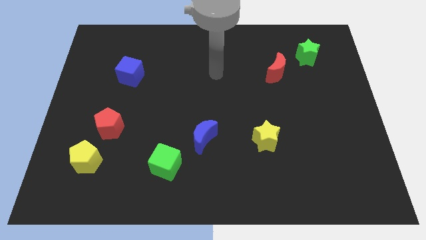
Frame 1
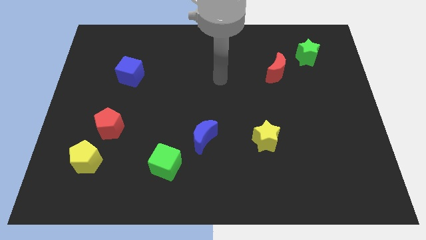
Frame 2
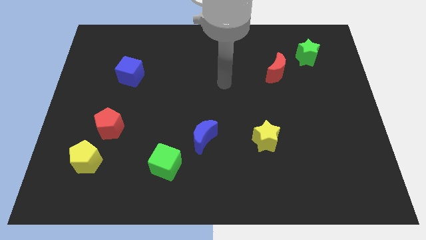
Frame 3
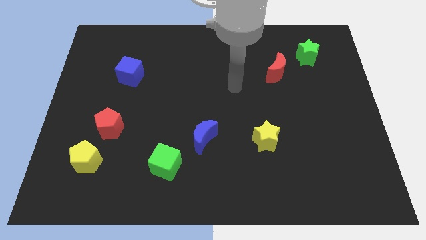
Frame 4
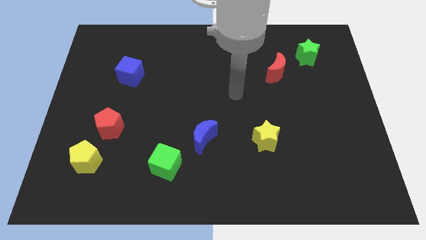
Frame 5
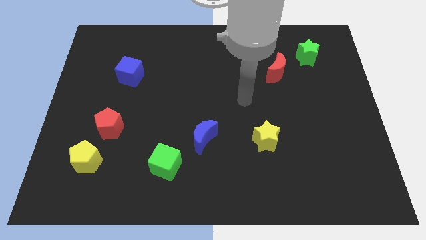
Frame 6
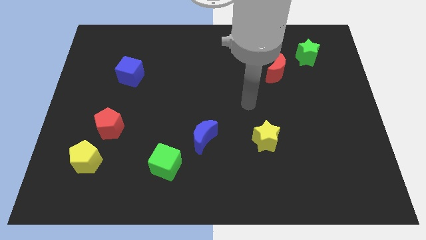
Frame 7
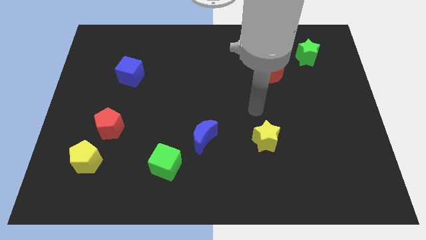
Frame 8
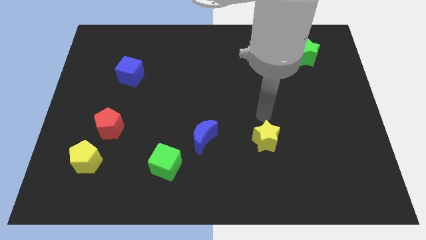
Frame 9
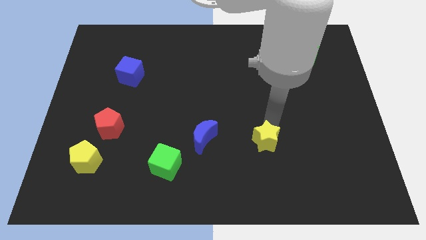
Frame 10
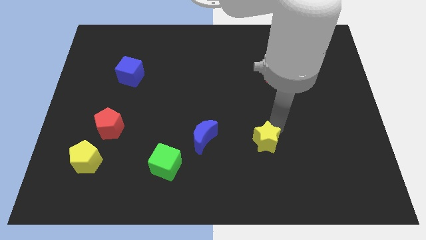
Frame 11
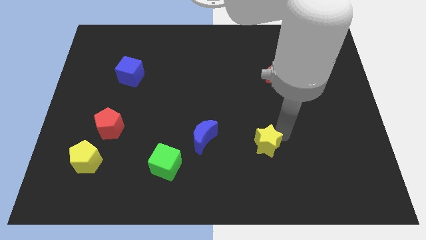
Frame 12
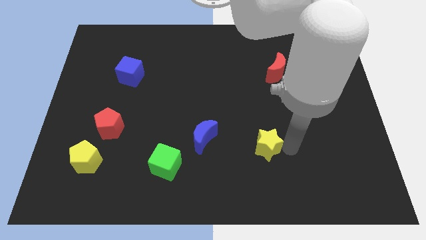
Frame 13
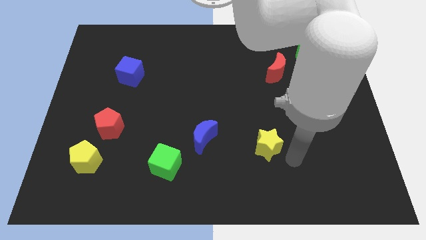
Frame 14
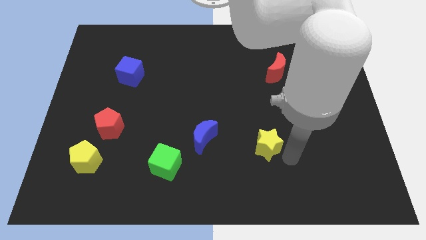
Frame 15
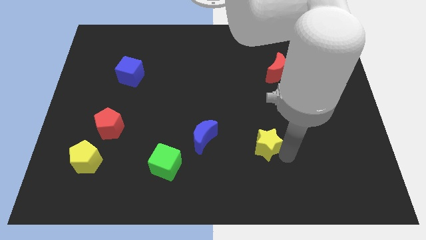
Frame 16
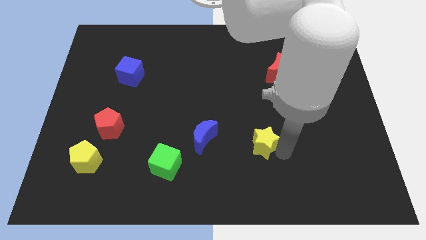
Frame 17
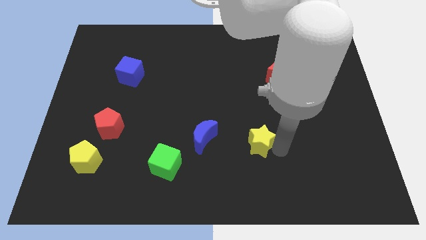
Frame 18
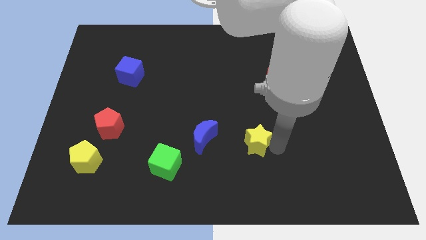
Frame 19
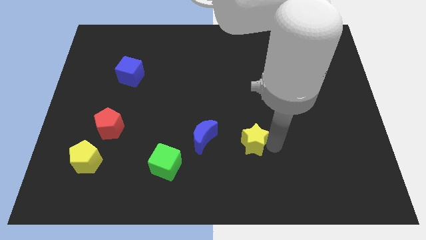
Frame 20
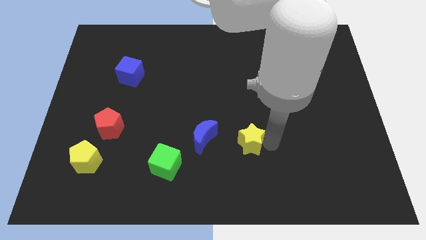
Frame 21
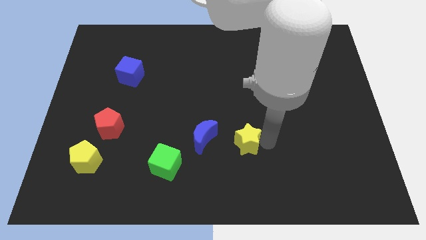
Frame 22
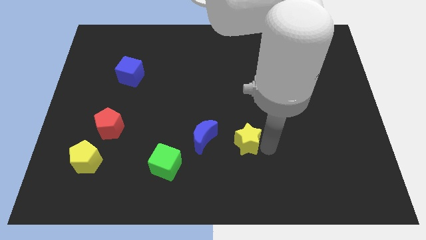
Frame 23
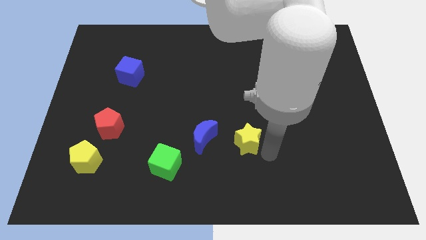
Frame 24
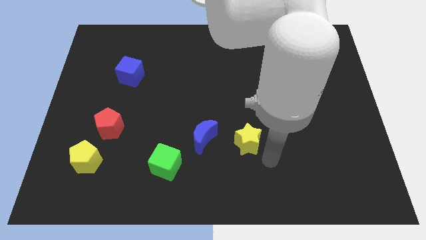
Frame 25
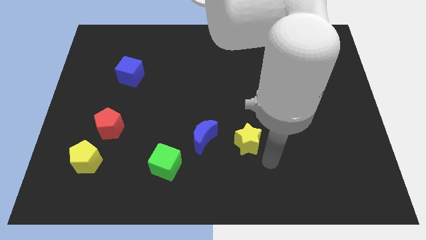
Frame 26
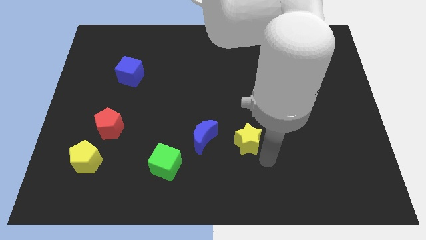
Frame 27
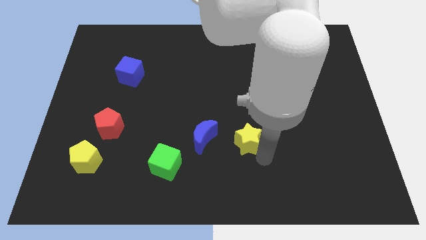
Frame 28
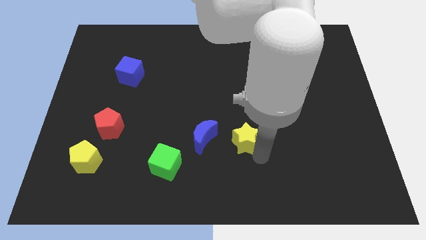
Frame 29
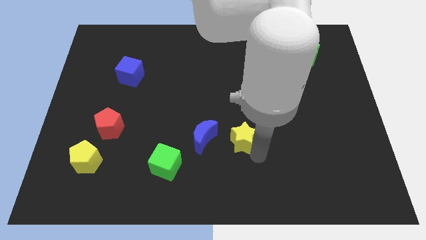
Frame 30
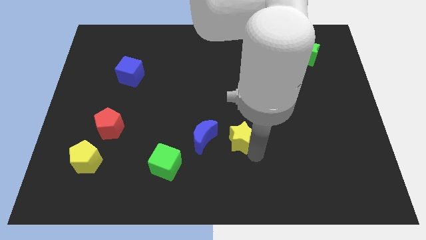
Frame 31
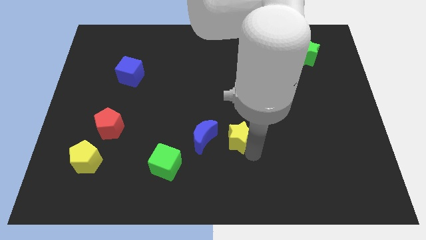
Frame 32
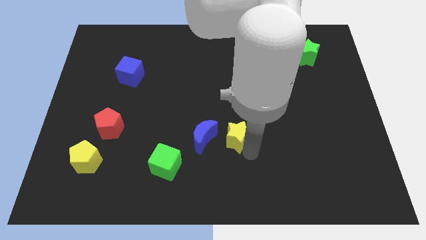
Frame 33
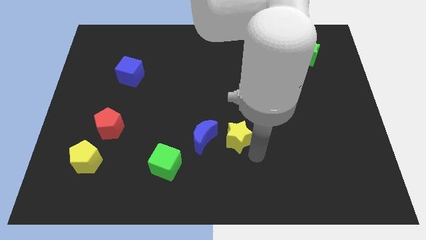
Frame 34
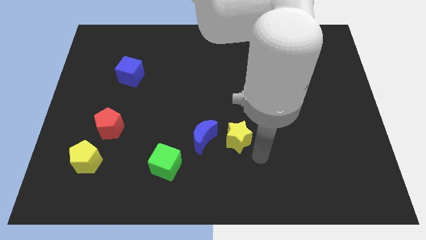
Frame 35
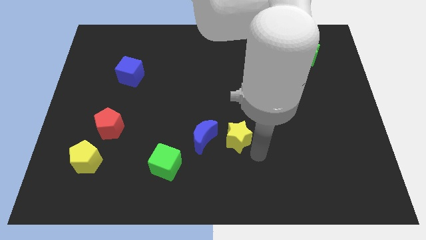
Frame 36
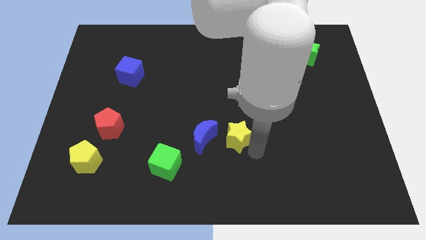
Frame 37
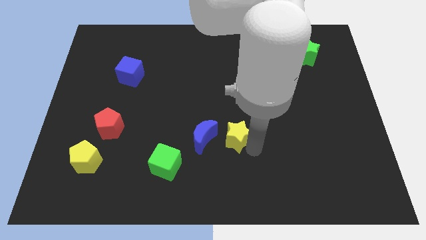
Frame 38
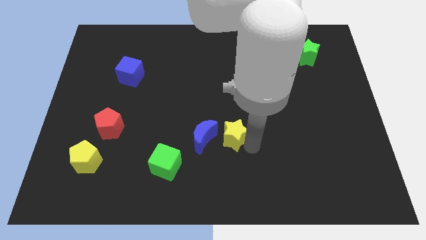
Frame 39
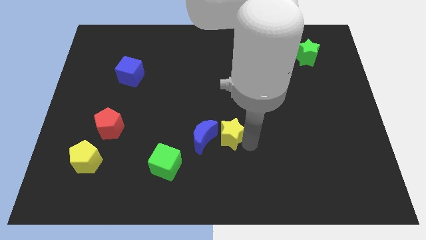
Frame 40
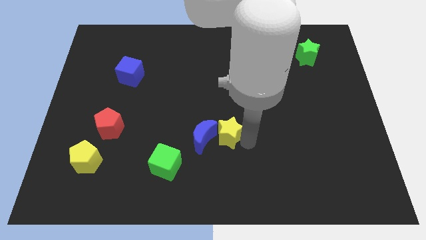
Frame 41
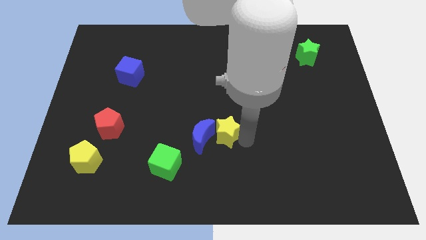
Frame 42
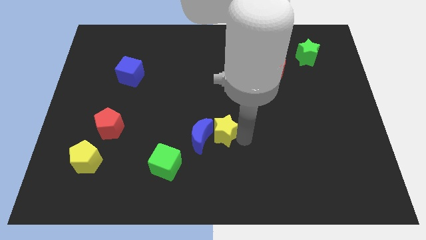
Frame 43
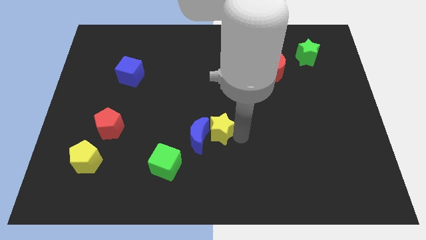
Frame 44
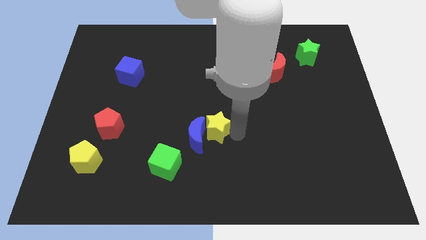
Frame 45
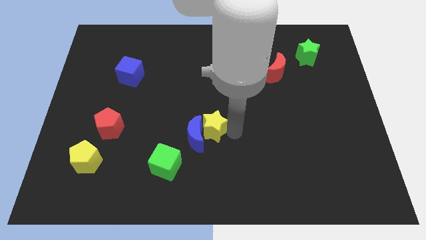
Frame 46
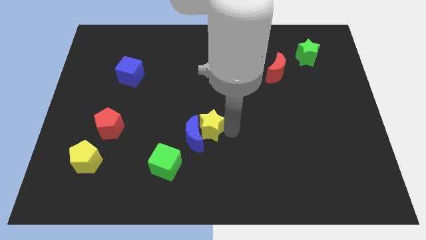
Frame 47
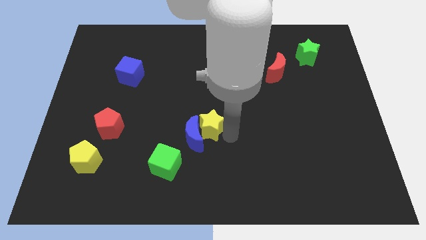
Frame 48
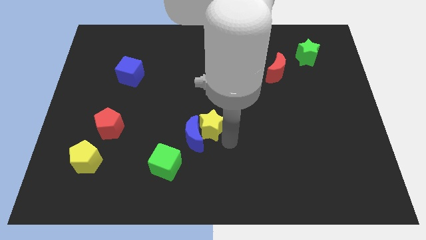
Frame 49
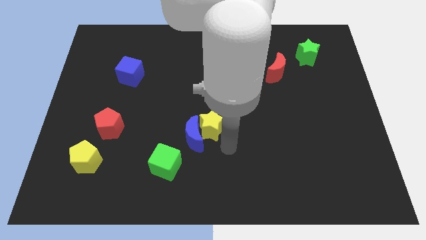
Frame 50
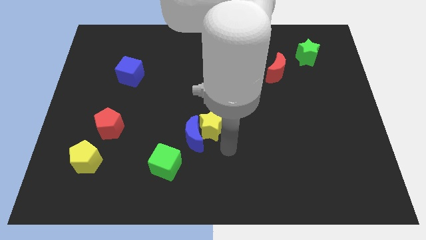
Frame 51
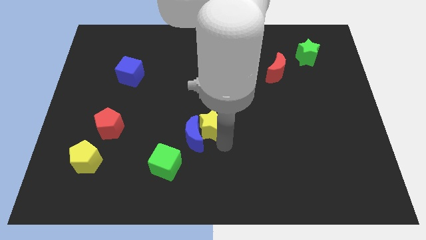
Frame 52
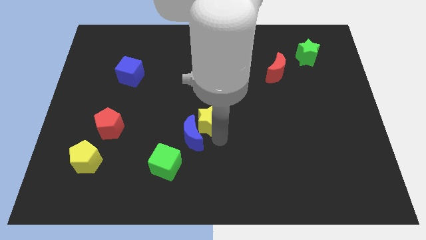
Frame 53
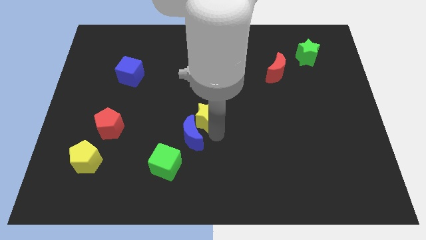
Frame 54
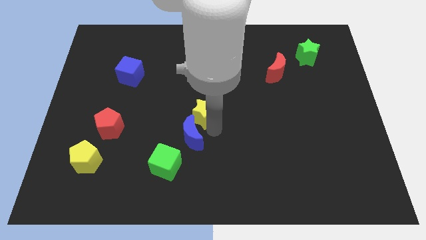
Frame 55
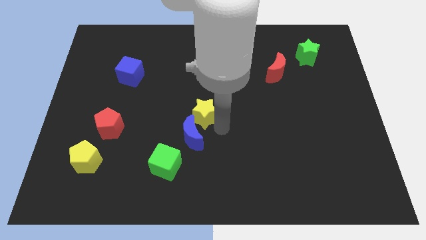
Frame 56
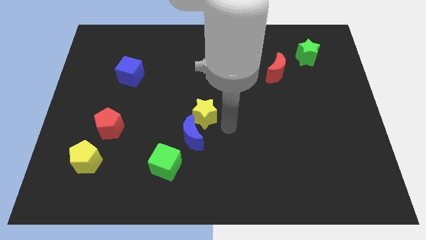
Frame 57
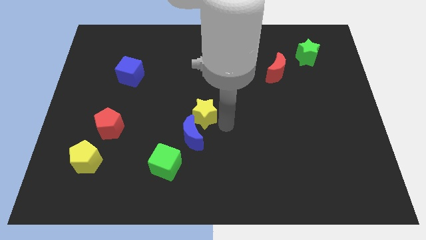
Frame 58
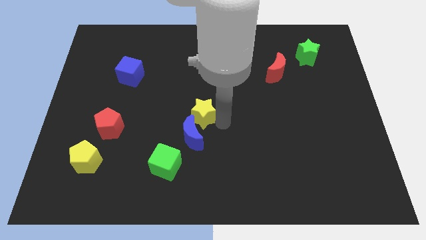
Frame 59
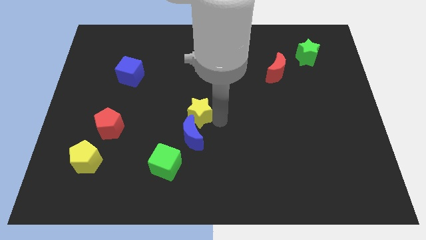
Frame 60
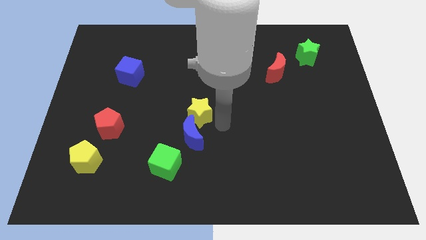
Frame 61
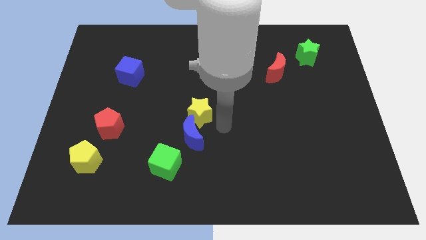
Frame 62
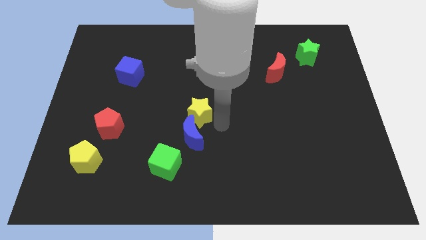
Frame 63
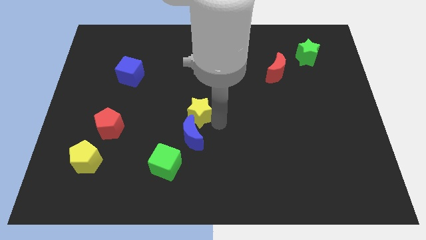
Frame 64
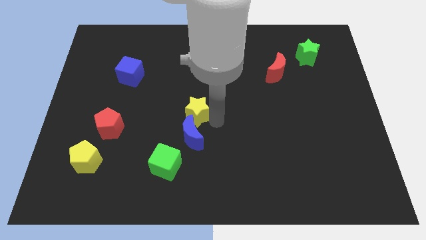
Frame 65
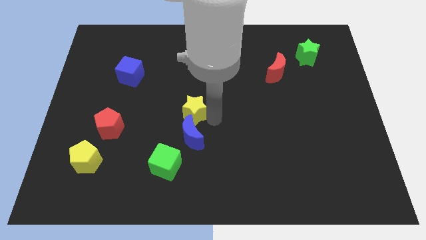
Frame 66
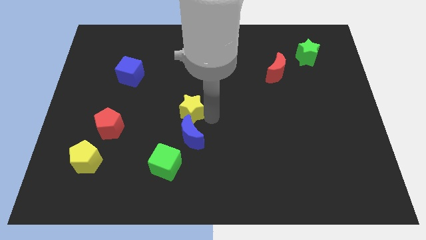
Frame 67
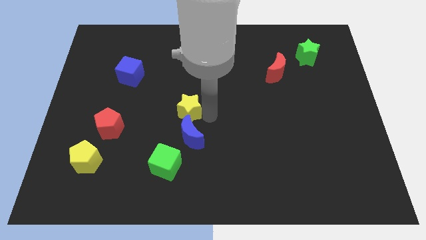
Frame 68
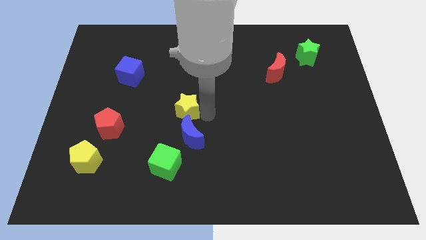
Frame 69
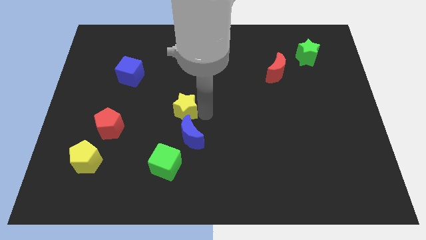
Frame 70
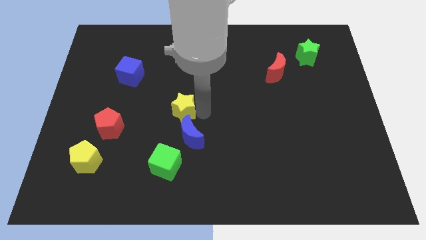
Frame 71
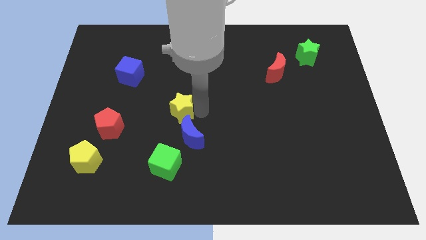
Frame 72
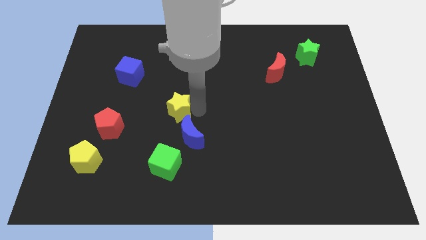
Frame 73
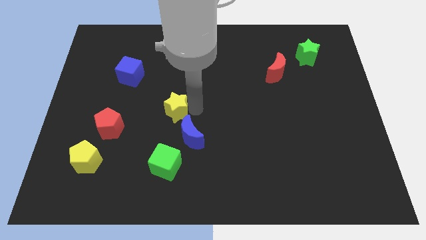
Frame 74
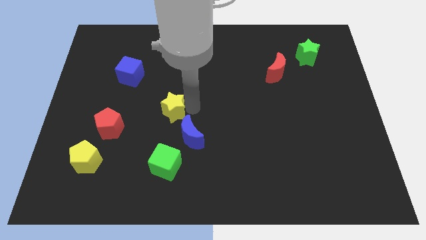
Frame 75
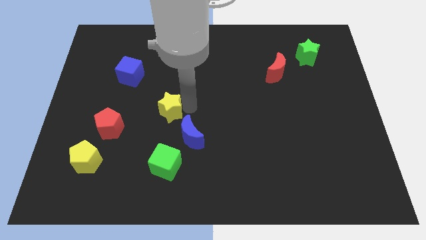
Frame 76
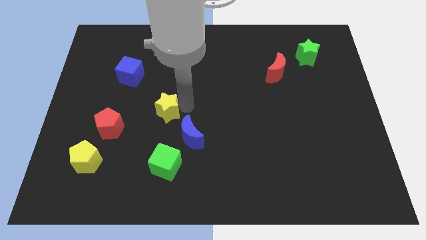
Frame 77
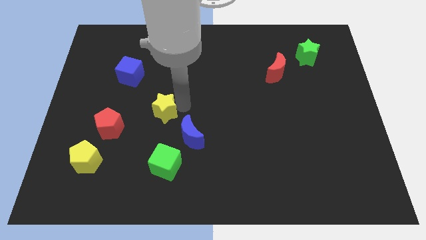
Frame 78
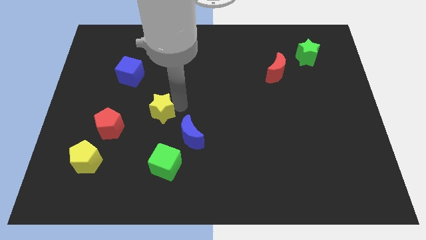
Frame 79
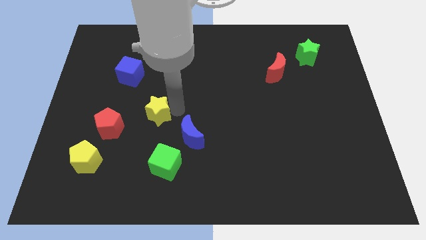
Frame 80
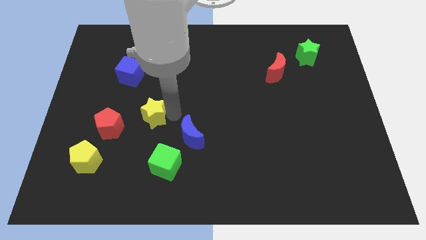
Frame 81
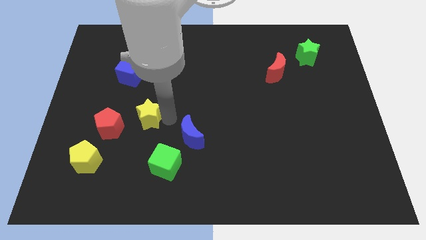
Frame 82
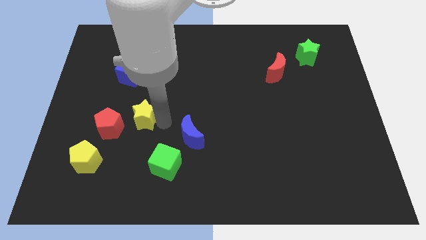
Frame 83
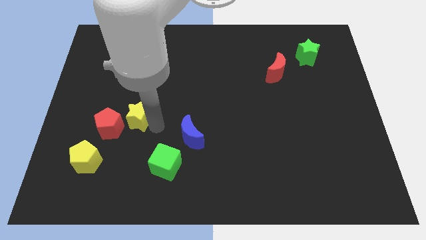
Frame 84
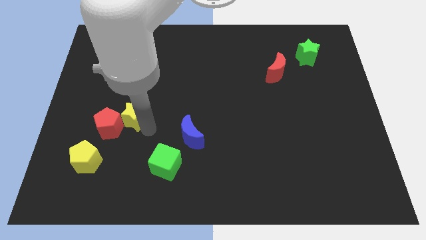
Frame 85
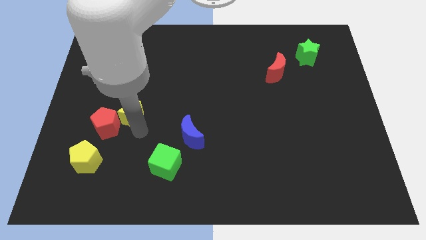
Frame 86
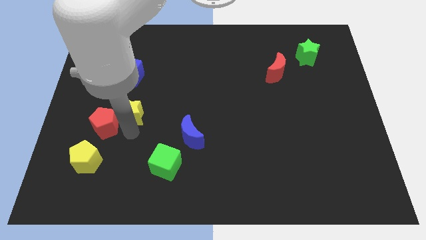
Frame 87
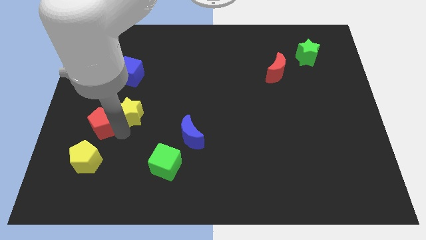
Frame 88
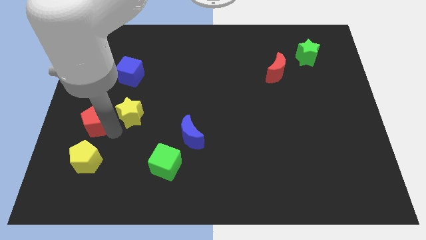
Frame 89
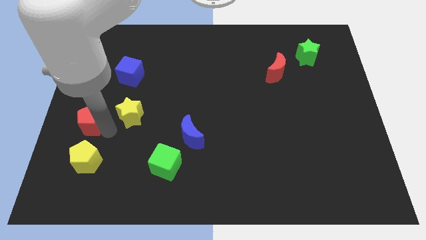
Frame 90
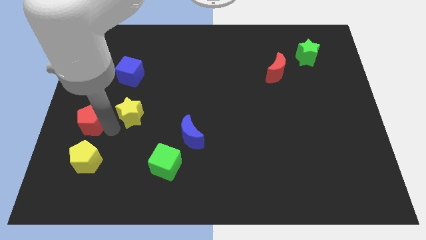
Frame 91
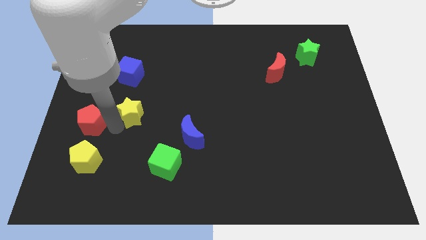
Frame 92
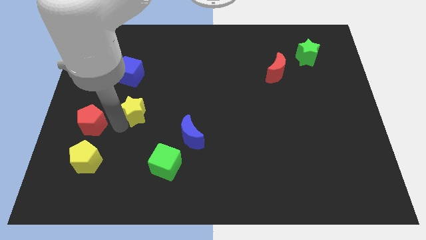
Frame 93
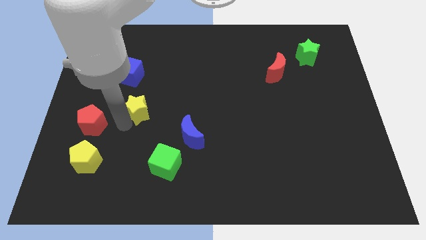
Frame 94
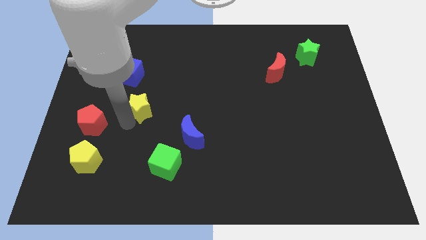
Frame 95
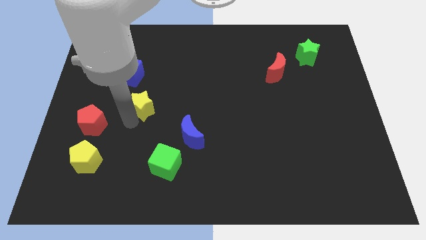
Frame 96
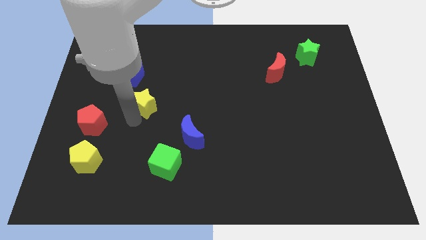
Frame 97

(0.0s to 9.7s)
move the yellow star to the bottom right side of the blue cube
